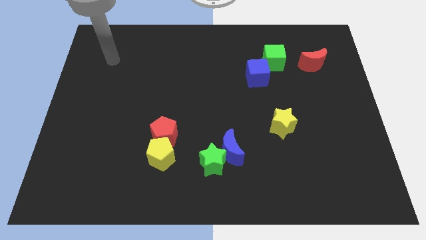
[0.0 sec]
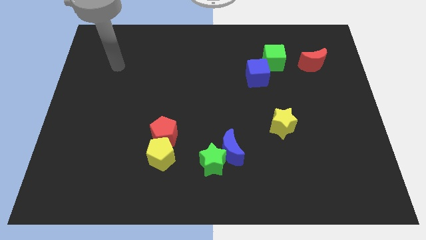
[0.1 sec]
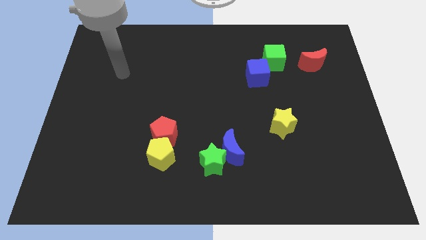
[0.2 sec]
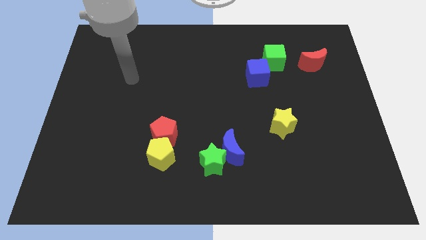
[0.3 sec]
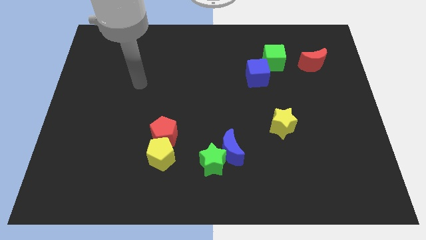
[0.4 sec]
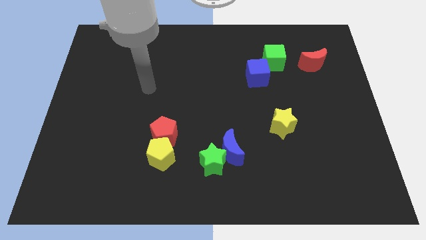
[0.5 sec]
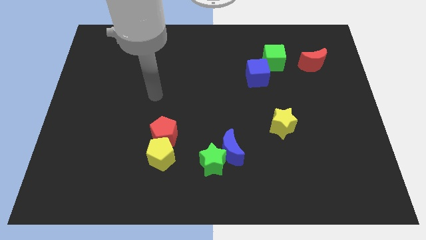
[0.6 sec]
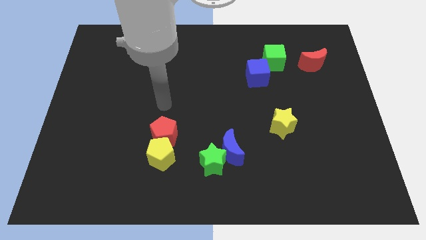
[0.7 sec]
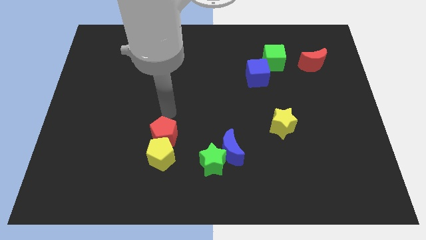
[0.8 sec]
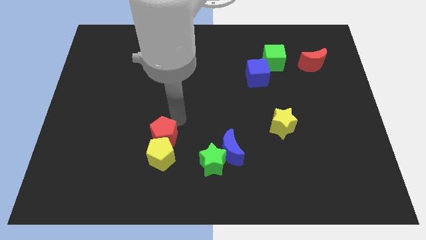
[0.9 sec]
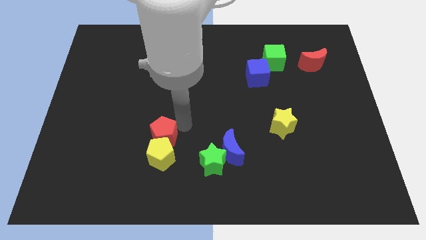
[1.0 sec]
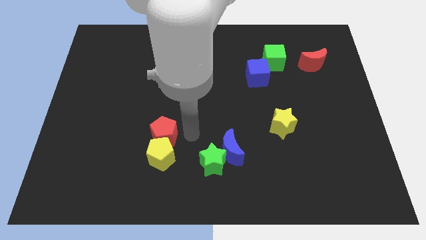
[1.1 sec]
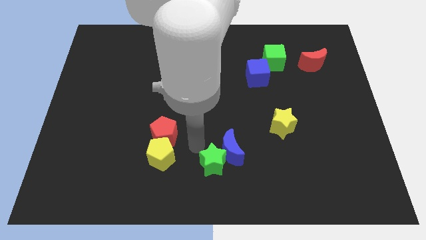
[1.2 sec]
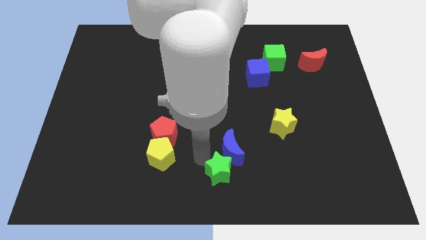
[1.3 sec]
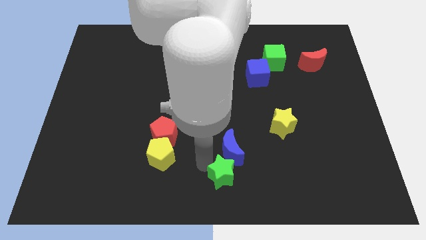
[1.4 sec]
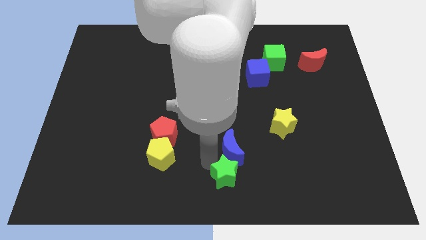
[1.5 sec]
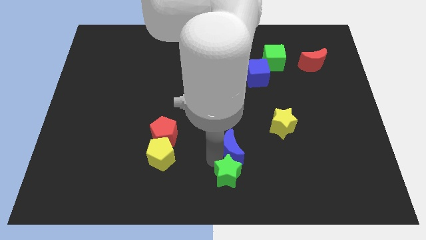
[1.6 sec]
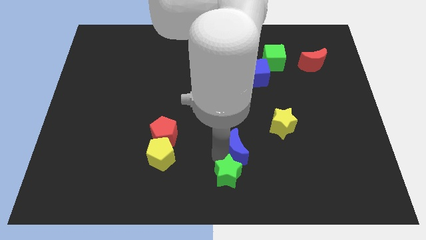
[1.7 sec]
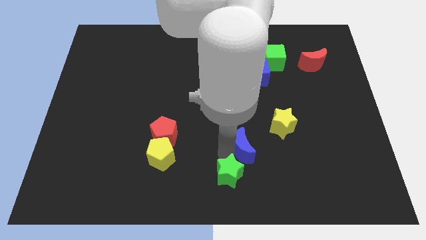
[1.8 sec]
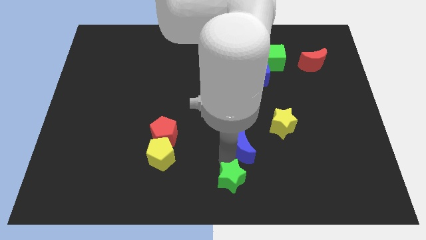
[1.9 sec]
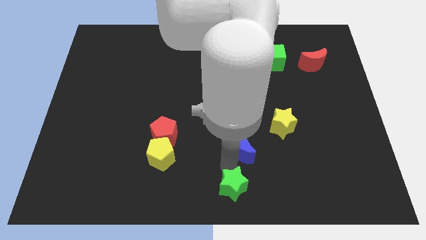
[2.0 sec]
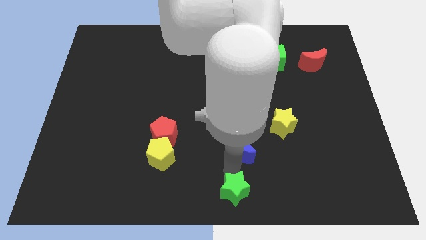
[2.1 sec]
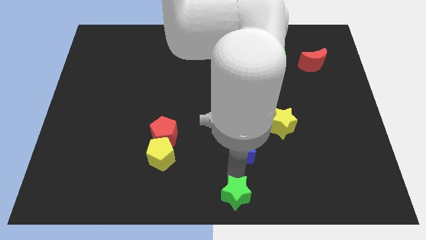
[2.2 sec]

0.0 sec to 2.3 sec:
separate the blue moon from the green star

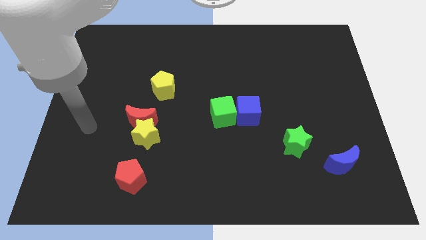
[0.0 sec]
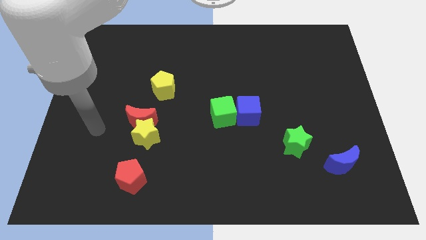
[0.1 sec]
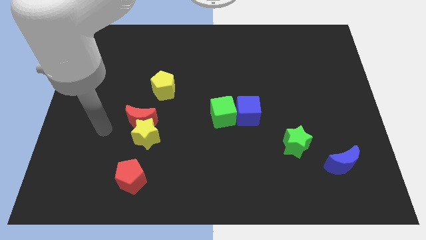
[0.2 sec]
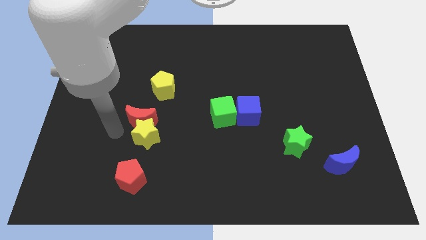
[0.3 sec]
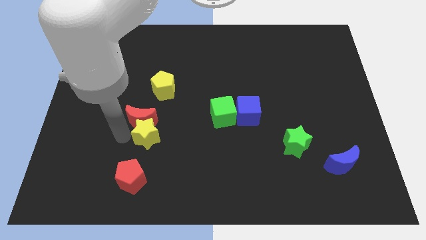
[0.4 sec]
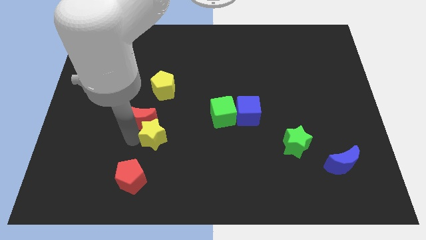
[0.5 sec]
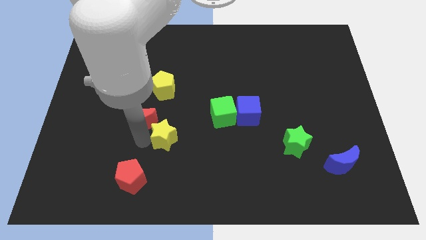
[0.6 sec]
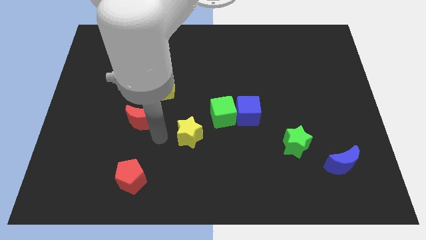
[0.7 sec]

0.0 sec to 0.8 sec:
pull the red moon apart from the yellow star

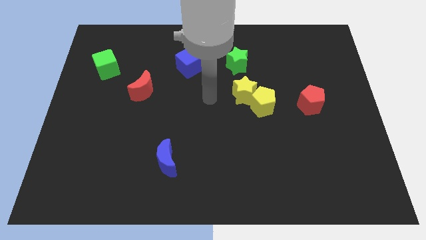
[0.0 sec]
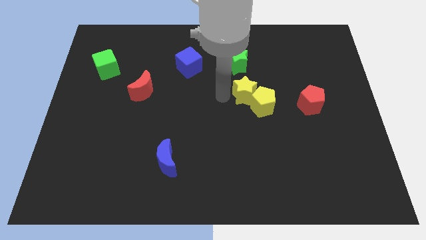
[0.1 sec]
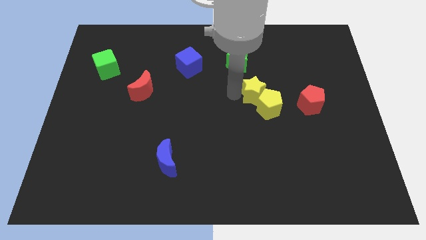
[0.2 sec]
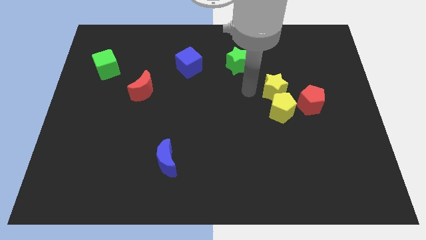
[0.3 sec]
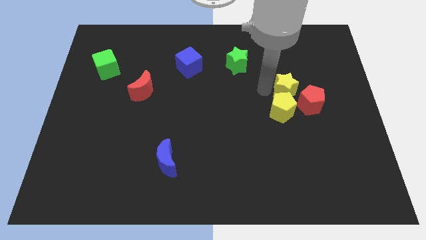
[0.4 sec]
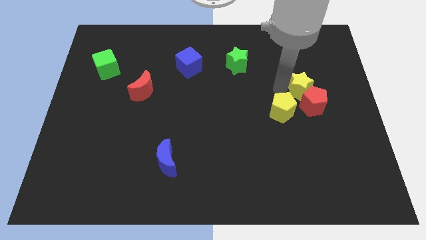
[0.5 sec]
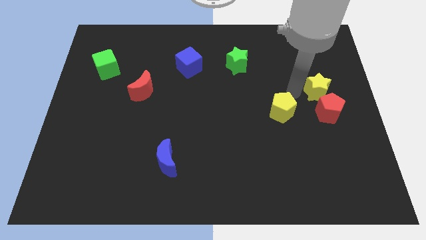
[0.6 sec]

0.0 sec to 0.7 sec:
pull the yellow pentagon apart from the yellow star

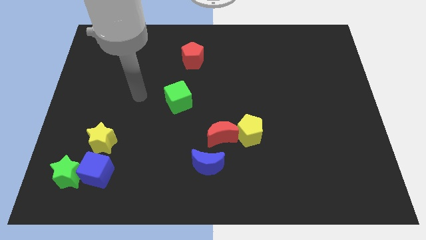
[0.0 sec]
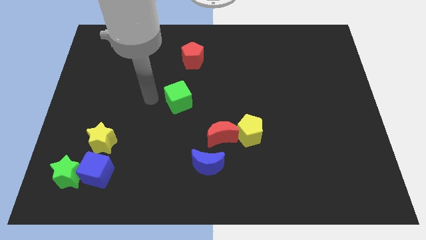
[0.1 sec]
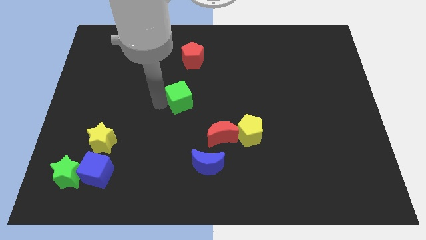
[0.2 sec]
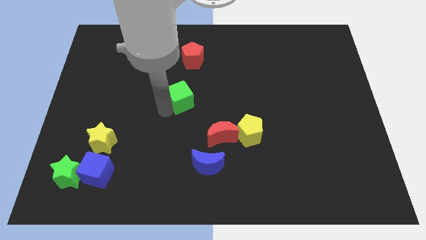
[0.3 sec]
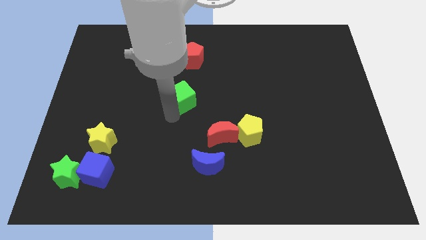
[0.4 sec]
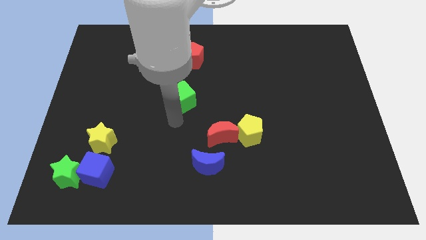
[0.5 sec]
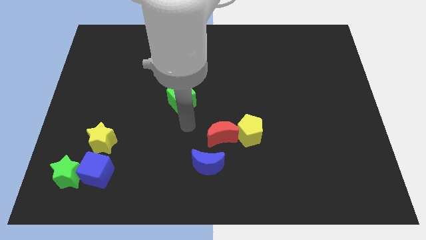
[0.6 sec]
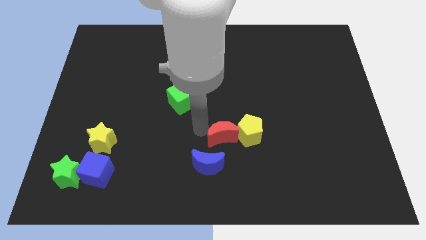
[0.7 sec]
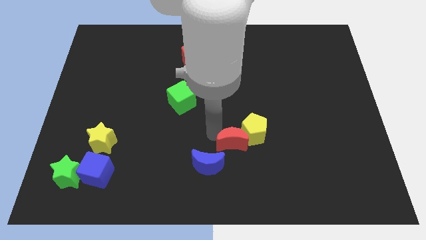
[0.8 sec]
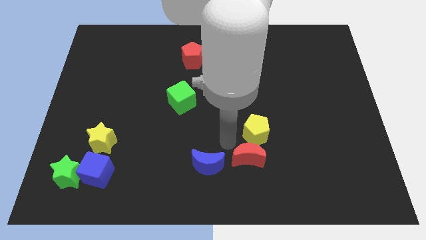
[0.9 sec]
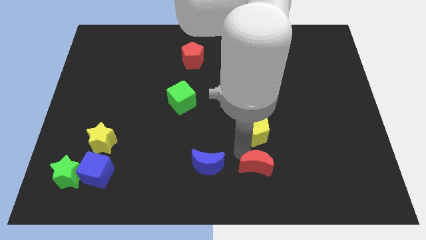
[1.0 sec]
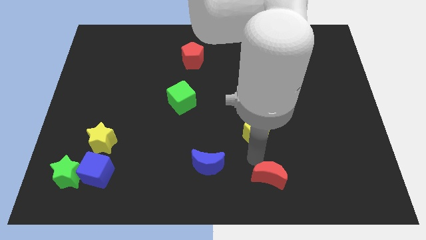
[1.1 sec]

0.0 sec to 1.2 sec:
move the yellow pentagon away from the red moon

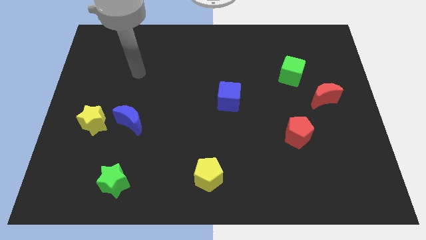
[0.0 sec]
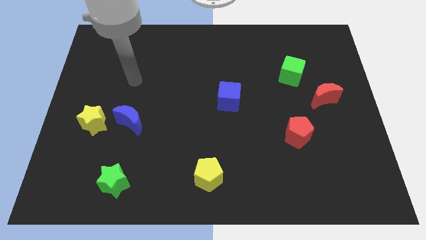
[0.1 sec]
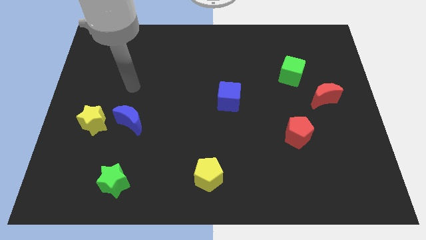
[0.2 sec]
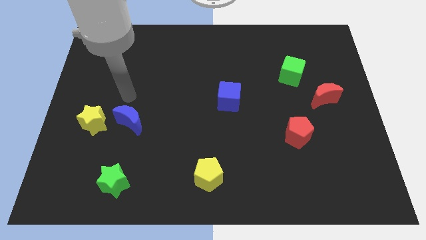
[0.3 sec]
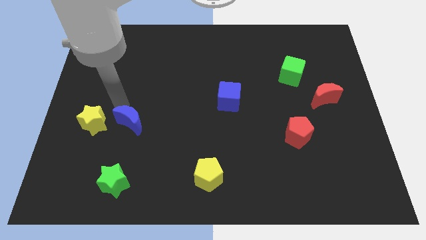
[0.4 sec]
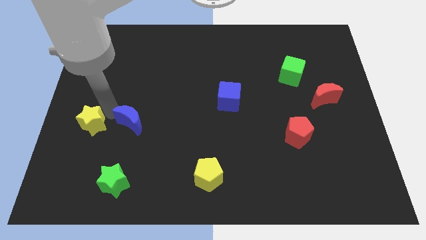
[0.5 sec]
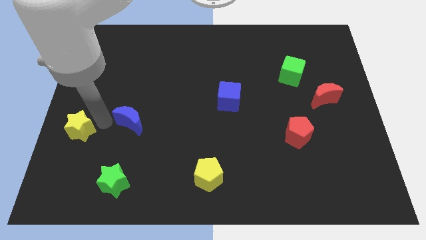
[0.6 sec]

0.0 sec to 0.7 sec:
move the blue moon away from the yellow star

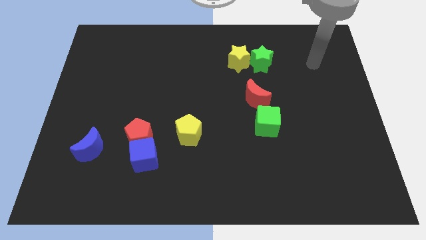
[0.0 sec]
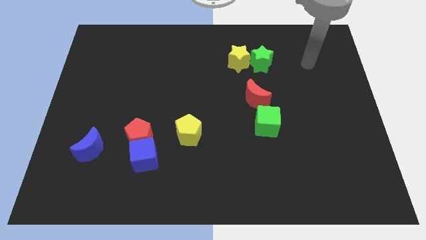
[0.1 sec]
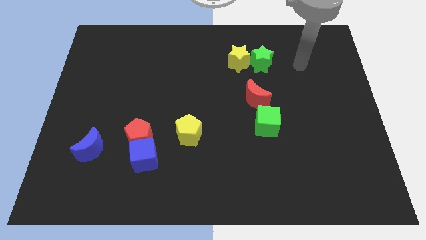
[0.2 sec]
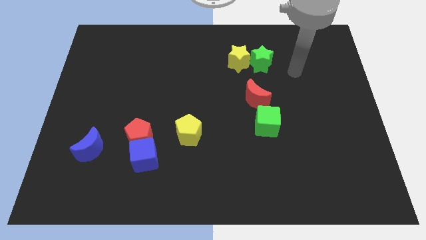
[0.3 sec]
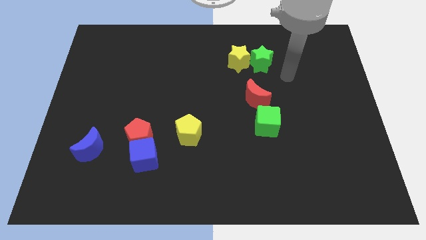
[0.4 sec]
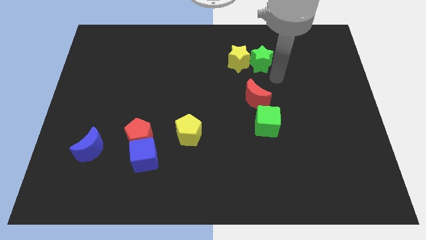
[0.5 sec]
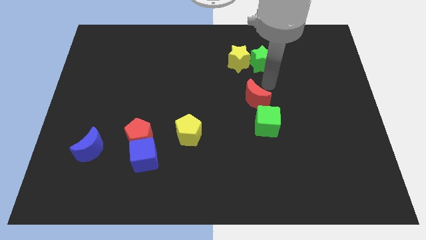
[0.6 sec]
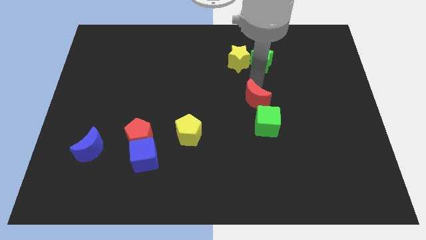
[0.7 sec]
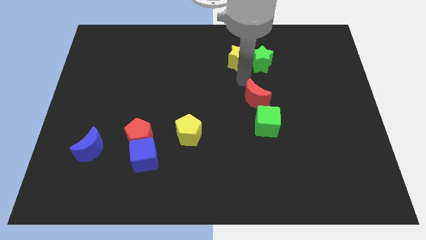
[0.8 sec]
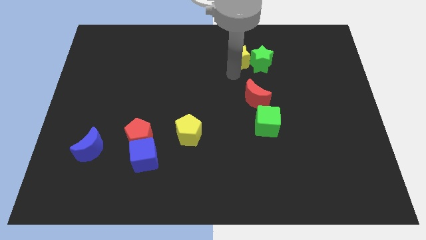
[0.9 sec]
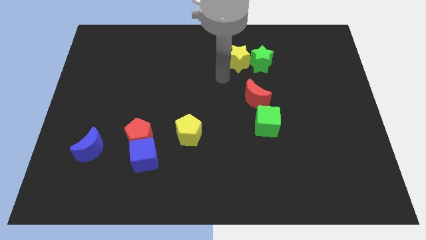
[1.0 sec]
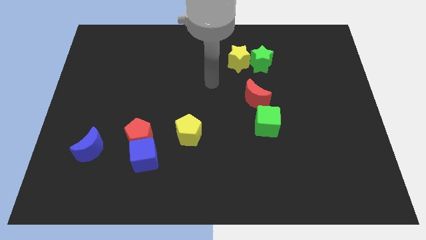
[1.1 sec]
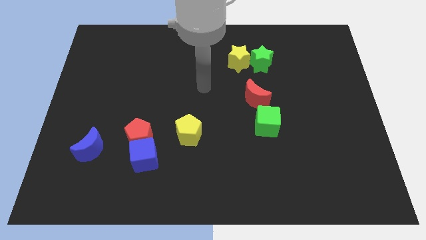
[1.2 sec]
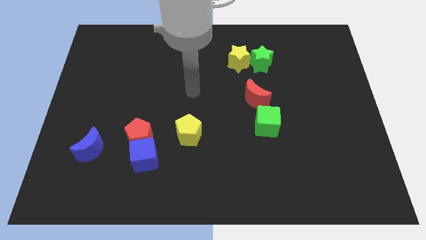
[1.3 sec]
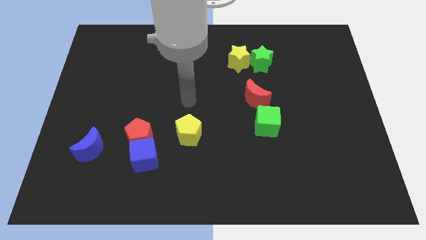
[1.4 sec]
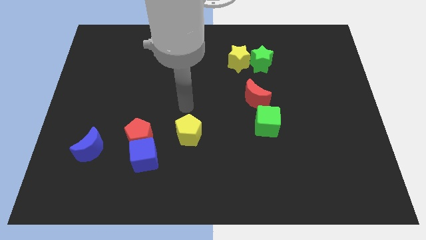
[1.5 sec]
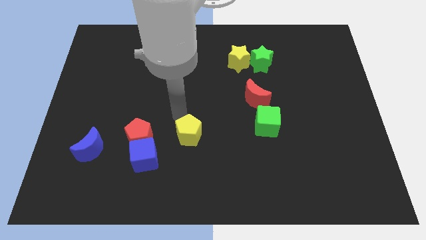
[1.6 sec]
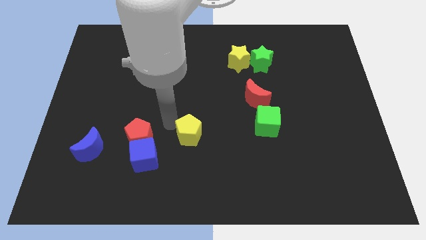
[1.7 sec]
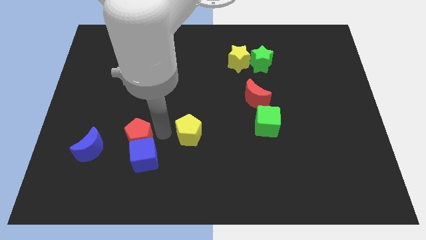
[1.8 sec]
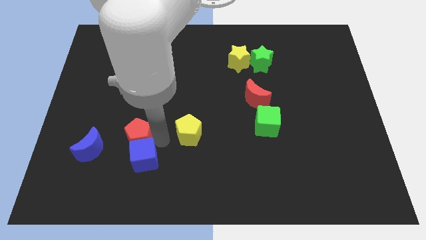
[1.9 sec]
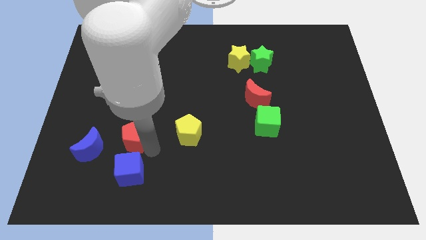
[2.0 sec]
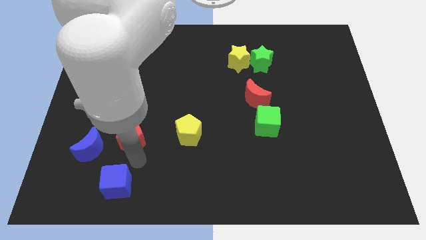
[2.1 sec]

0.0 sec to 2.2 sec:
pull the red pentagon apart from the blue cube

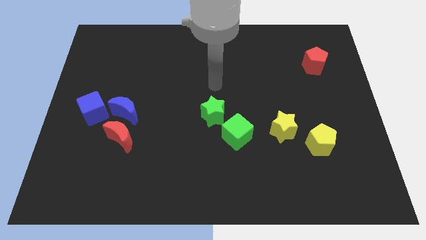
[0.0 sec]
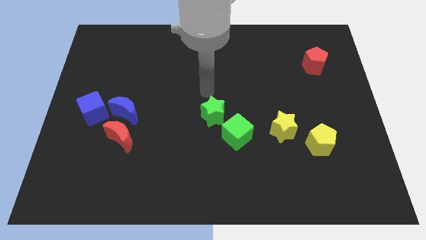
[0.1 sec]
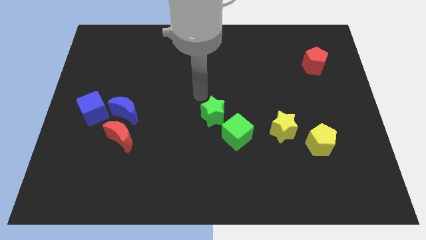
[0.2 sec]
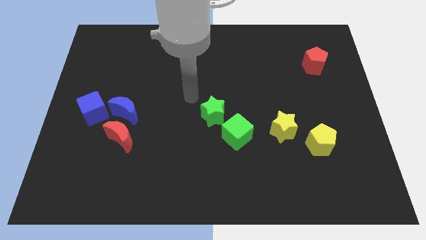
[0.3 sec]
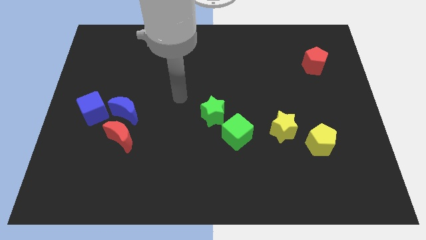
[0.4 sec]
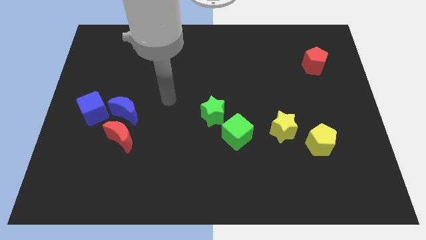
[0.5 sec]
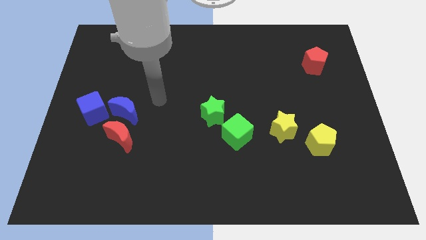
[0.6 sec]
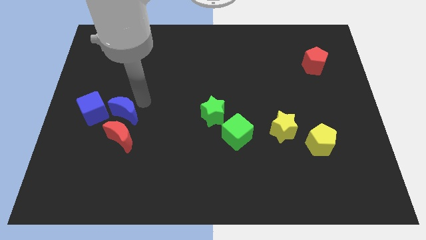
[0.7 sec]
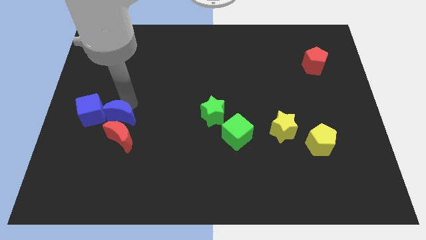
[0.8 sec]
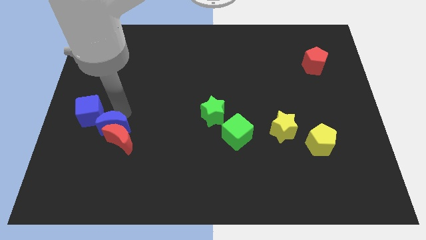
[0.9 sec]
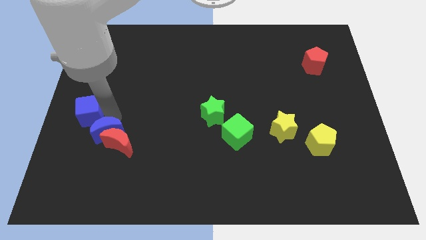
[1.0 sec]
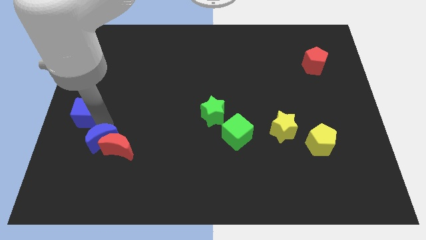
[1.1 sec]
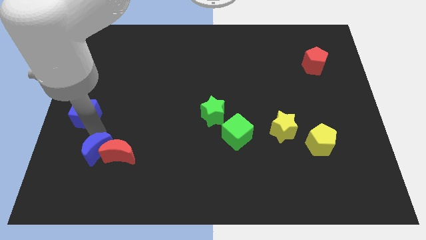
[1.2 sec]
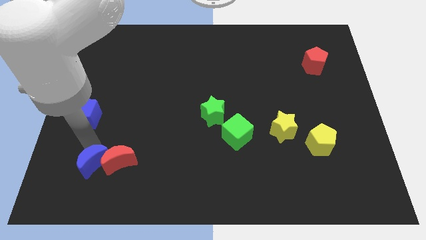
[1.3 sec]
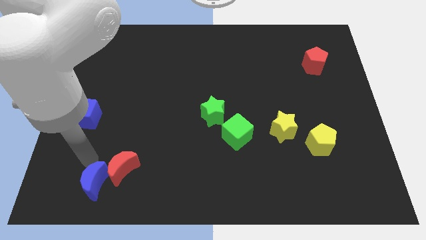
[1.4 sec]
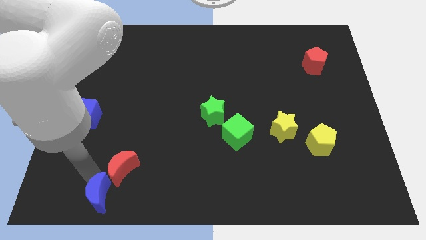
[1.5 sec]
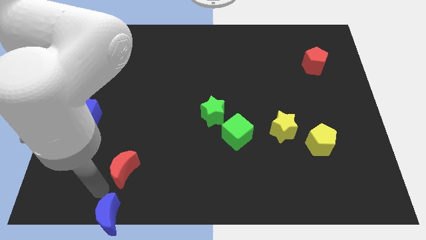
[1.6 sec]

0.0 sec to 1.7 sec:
move the red moon away from the blue moon
